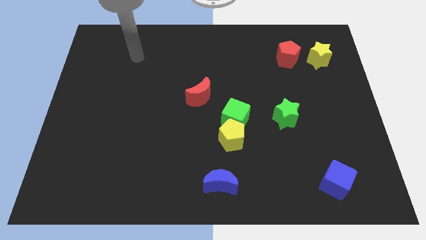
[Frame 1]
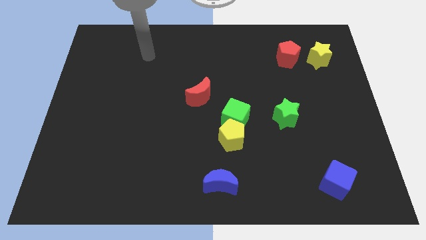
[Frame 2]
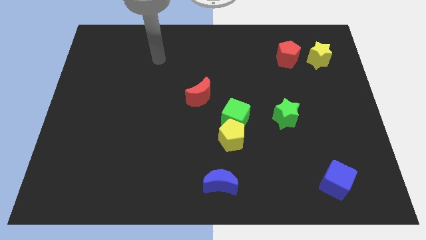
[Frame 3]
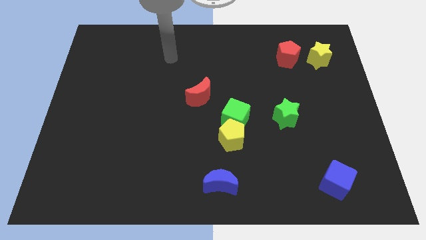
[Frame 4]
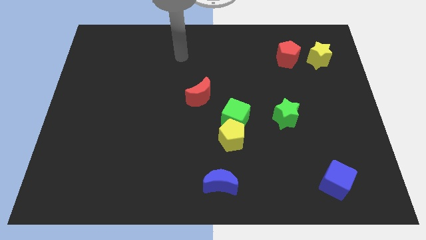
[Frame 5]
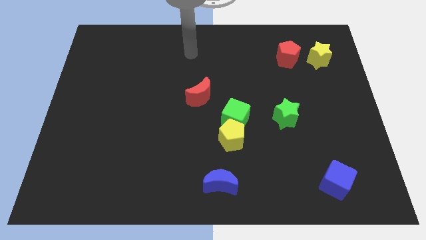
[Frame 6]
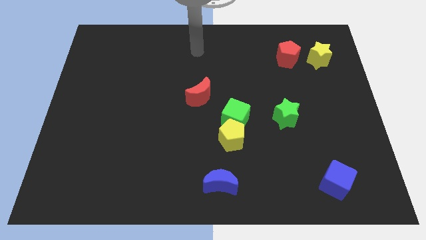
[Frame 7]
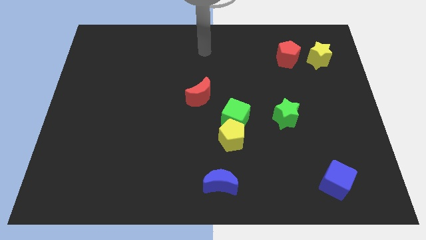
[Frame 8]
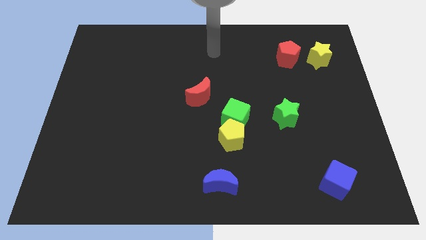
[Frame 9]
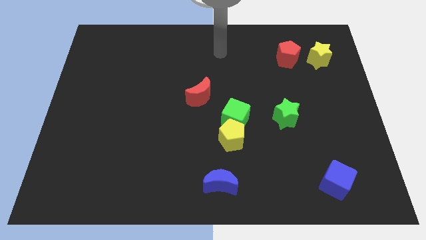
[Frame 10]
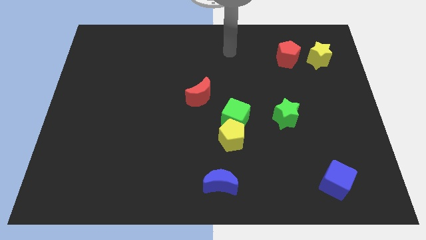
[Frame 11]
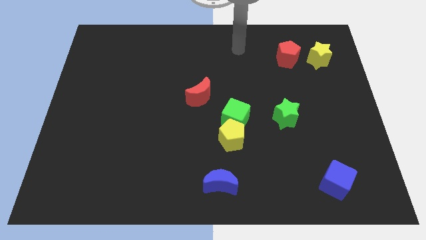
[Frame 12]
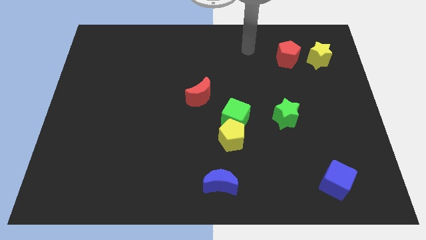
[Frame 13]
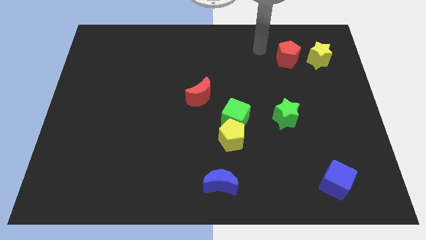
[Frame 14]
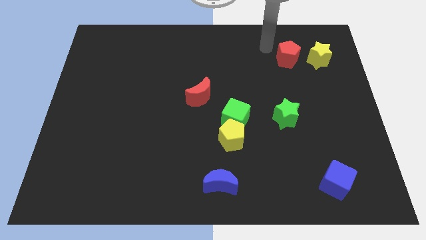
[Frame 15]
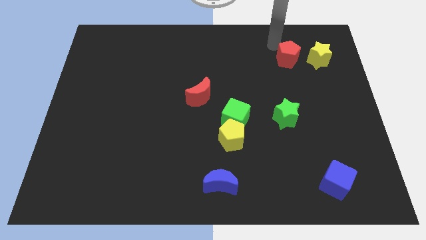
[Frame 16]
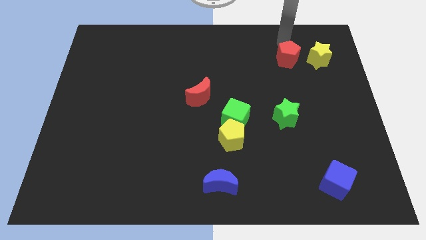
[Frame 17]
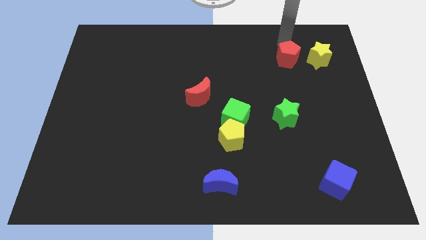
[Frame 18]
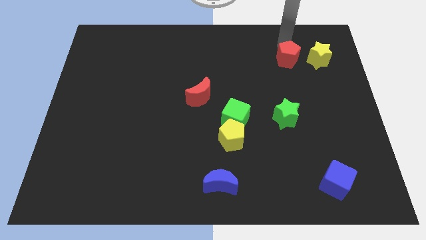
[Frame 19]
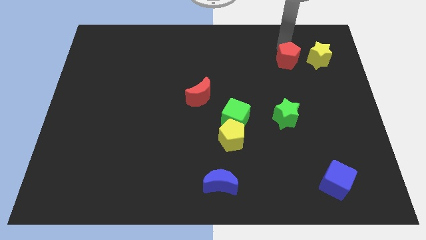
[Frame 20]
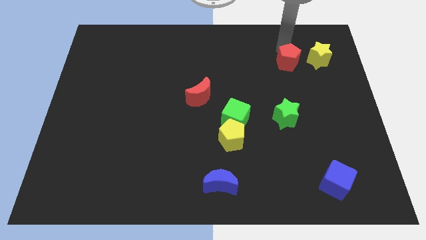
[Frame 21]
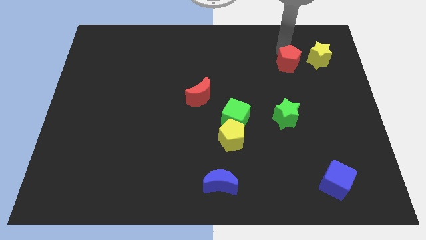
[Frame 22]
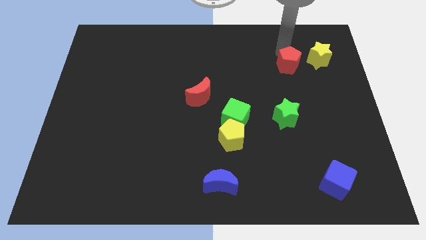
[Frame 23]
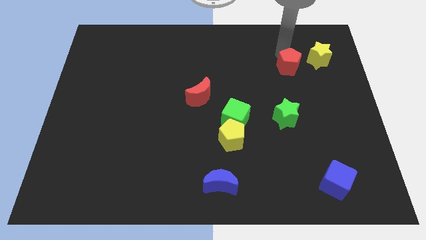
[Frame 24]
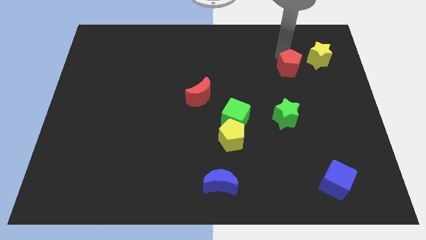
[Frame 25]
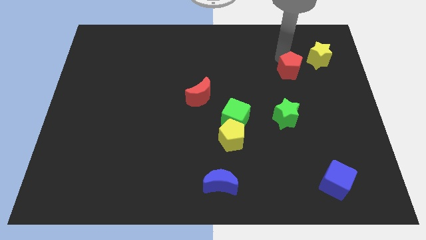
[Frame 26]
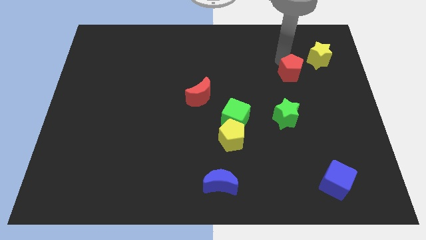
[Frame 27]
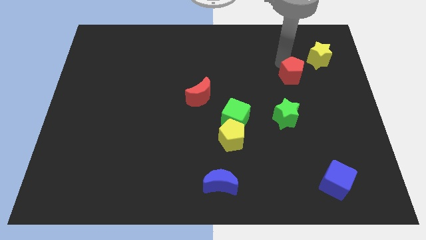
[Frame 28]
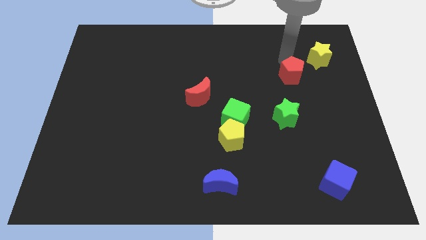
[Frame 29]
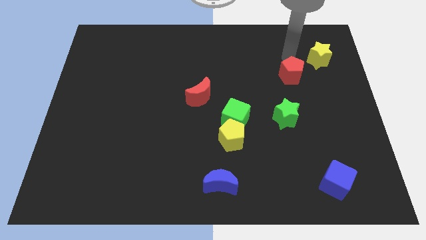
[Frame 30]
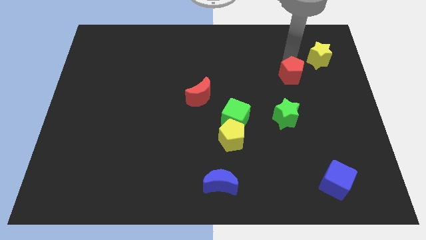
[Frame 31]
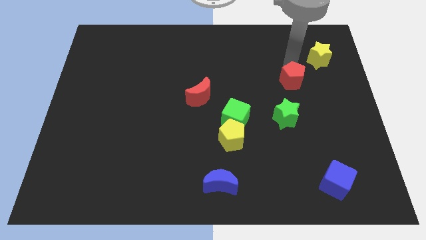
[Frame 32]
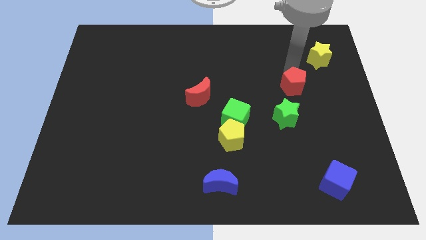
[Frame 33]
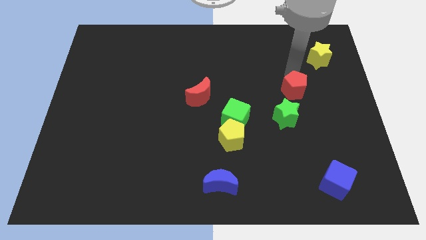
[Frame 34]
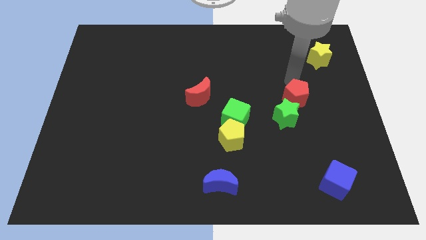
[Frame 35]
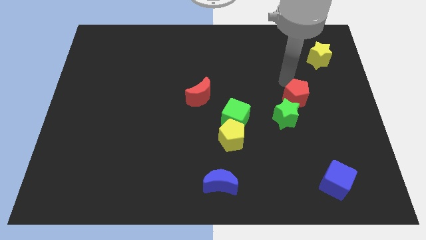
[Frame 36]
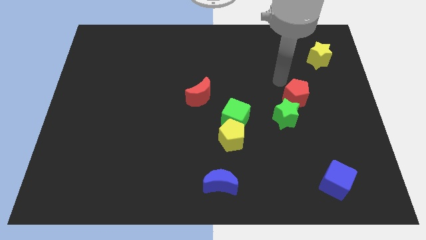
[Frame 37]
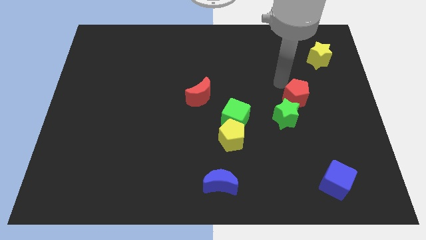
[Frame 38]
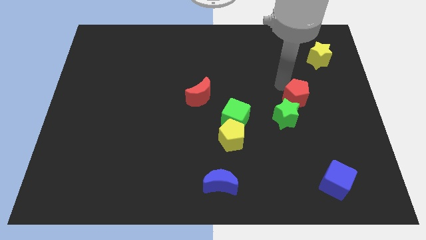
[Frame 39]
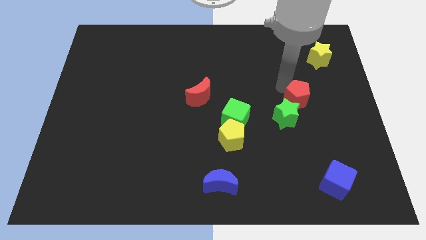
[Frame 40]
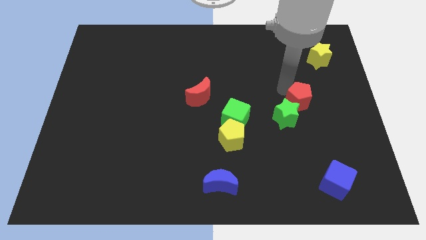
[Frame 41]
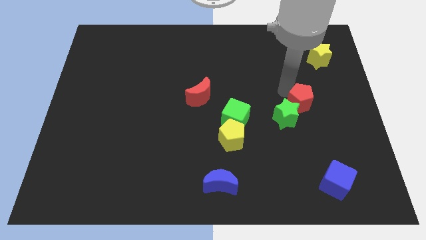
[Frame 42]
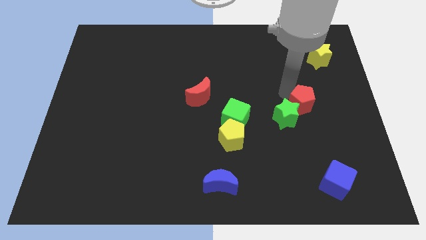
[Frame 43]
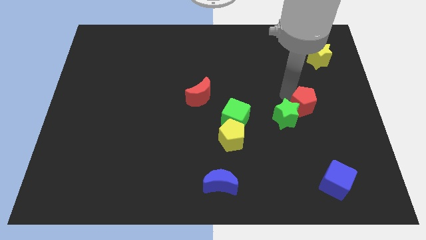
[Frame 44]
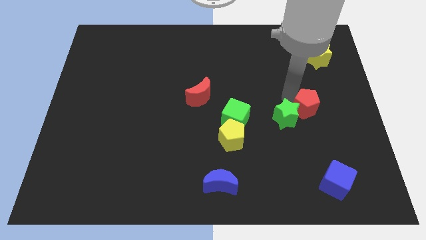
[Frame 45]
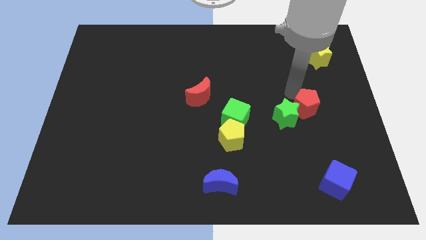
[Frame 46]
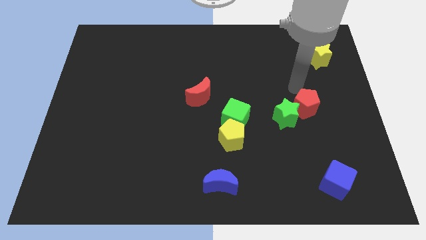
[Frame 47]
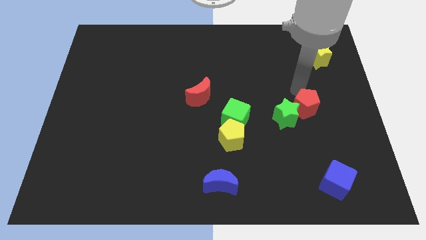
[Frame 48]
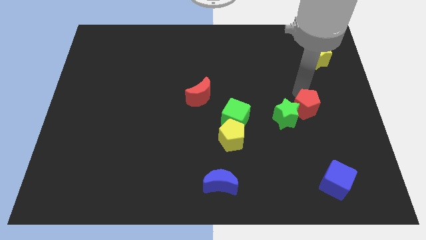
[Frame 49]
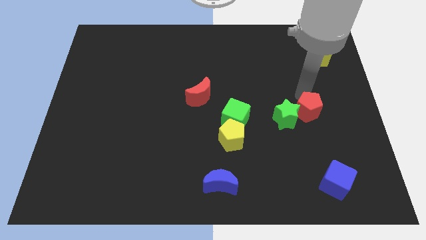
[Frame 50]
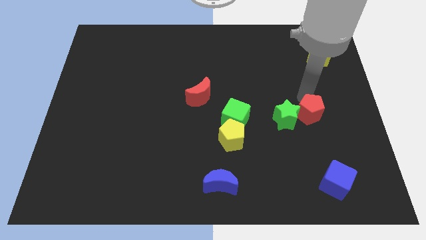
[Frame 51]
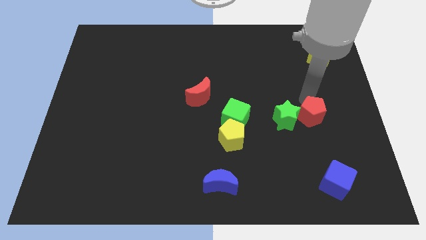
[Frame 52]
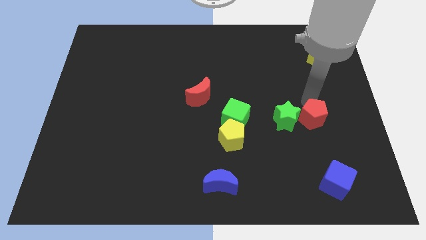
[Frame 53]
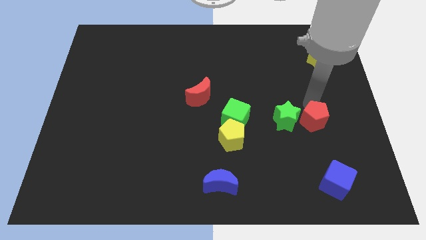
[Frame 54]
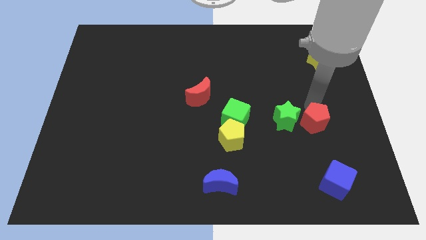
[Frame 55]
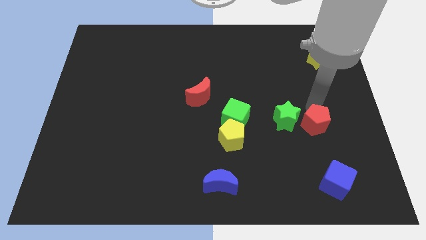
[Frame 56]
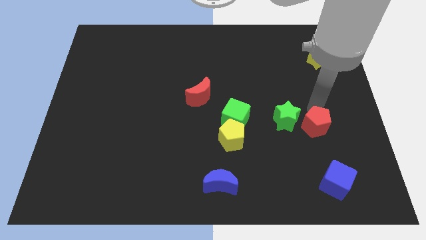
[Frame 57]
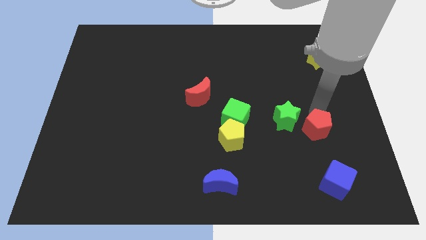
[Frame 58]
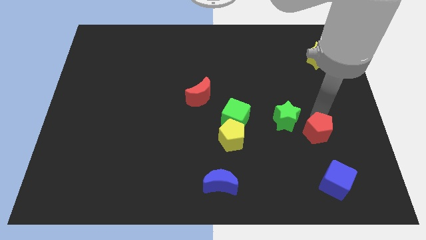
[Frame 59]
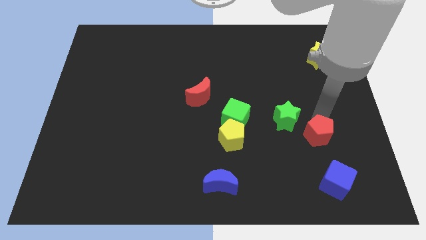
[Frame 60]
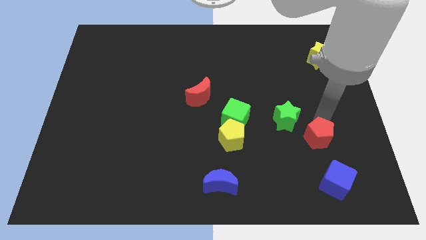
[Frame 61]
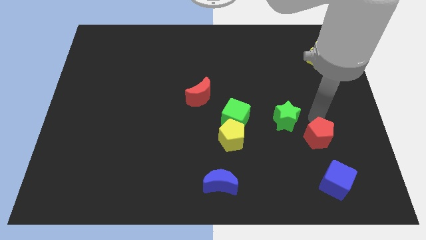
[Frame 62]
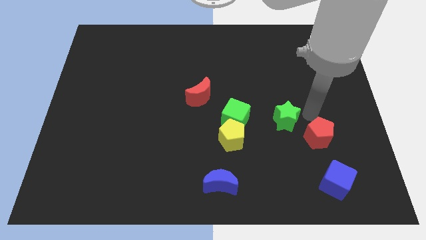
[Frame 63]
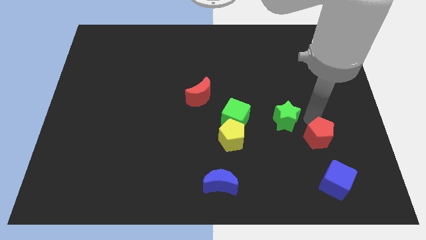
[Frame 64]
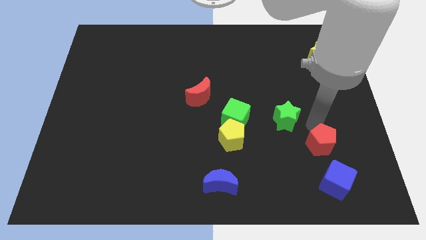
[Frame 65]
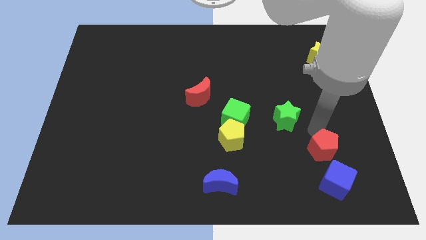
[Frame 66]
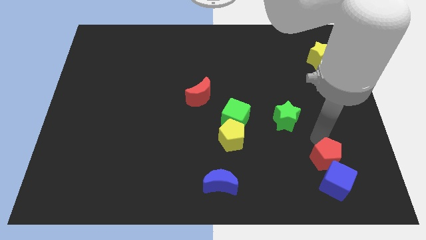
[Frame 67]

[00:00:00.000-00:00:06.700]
push the red pentagon towards the blue cube

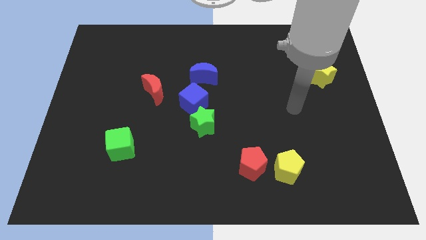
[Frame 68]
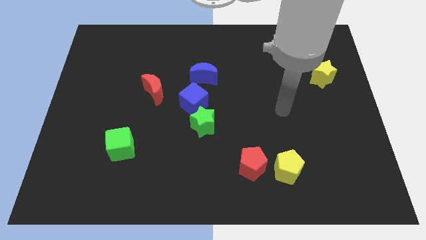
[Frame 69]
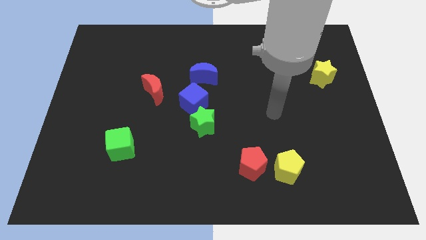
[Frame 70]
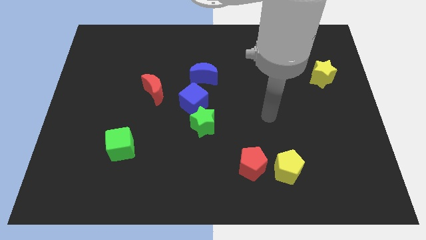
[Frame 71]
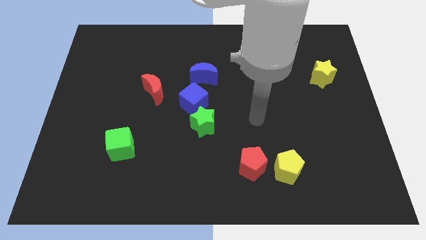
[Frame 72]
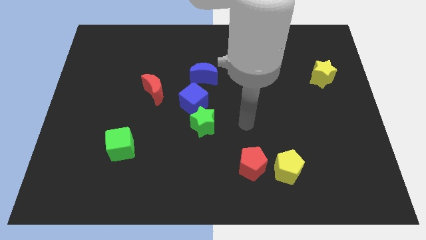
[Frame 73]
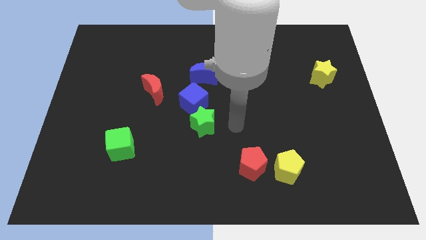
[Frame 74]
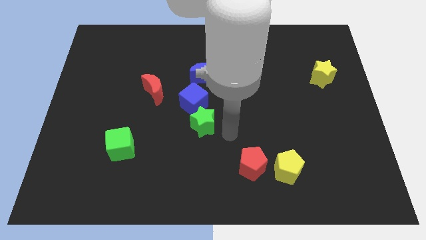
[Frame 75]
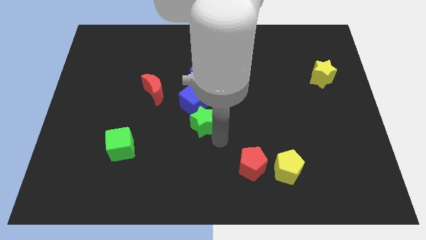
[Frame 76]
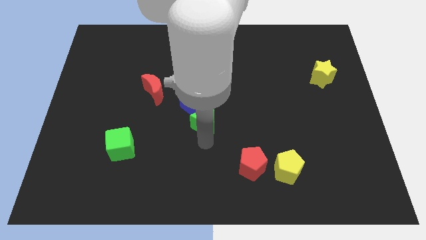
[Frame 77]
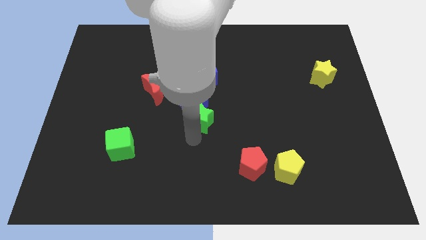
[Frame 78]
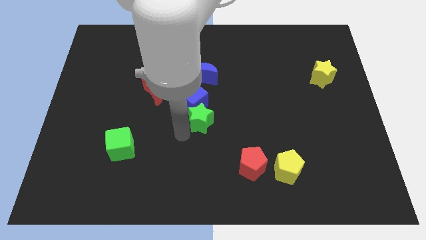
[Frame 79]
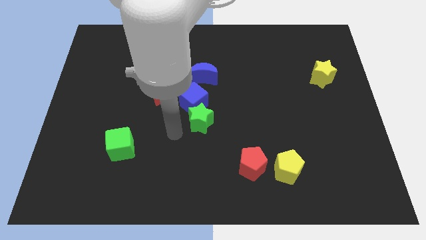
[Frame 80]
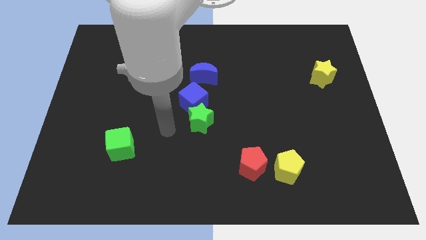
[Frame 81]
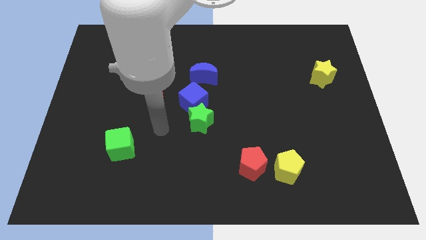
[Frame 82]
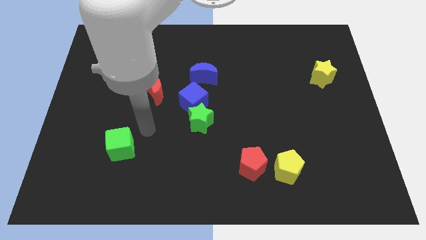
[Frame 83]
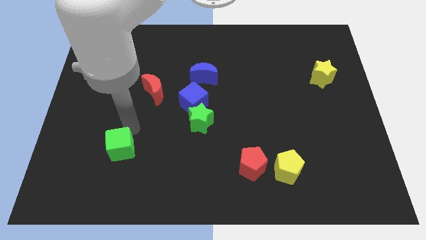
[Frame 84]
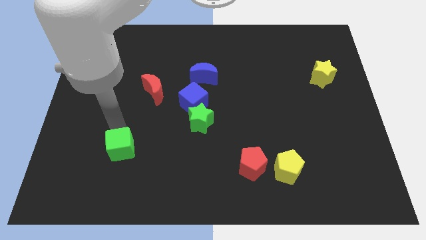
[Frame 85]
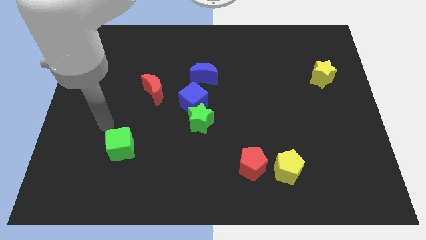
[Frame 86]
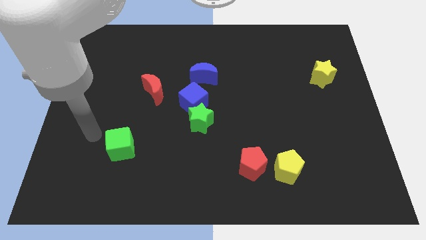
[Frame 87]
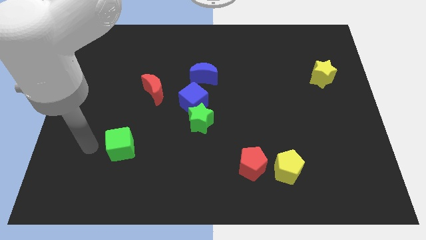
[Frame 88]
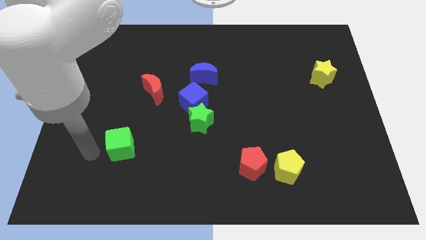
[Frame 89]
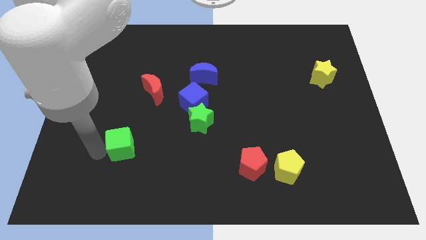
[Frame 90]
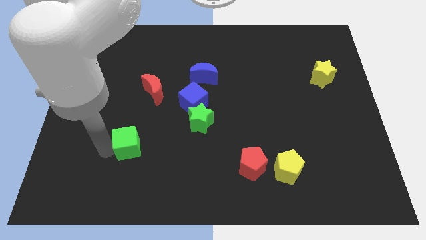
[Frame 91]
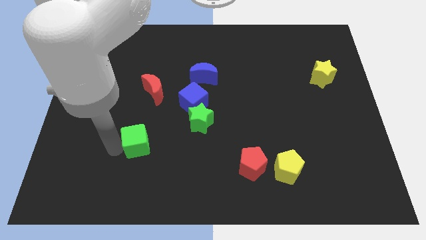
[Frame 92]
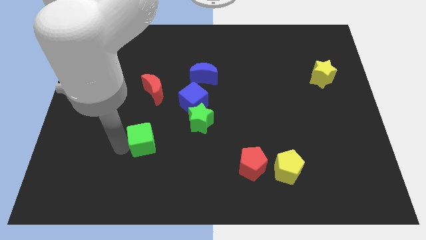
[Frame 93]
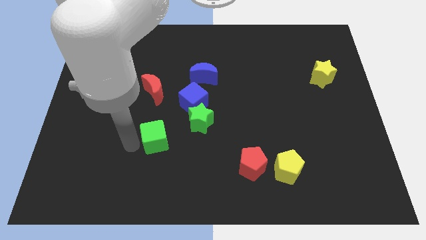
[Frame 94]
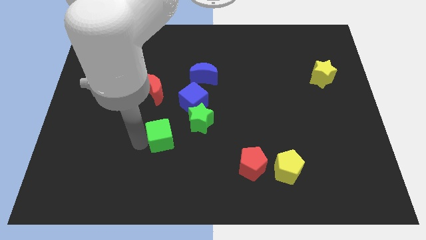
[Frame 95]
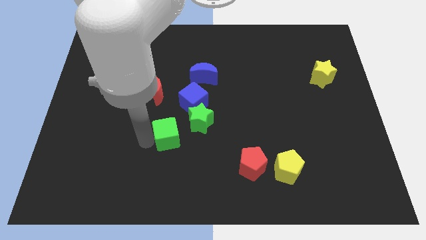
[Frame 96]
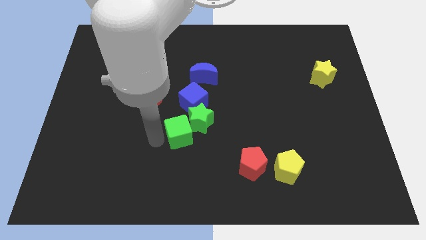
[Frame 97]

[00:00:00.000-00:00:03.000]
put the green cube close to the green star
